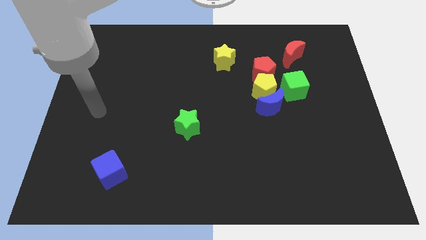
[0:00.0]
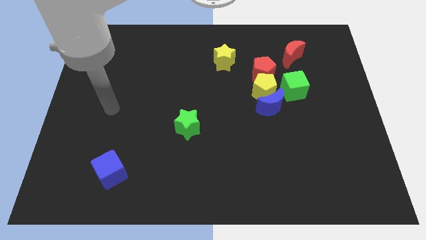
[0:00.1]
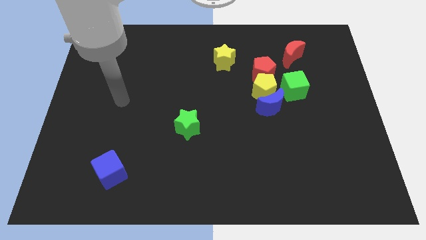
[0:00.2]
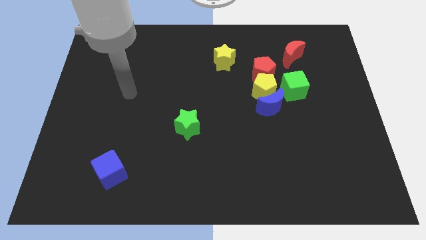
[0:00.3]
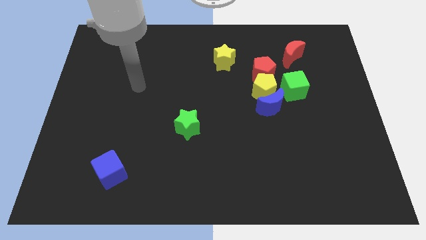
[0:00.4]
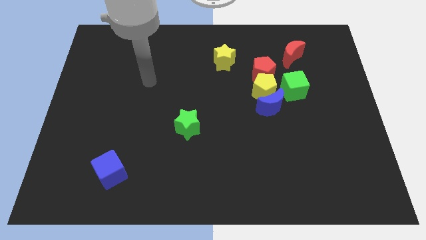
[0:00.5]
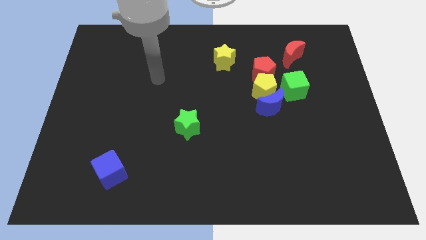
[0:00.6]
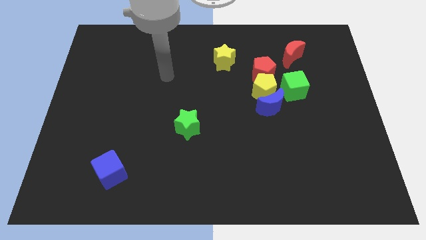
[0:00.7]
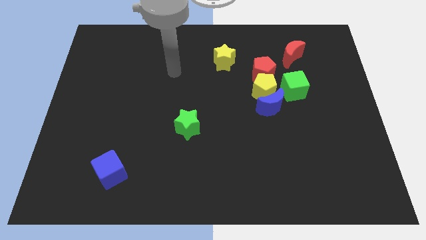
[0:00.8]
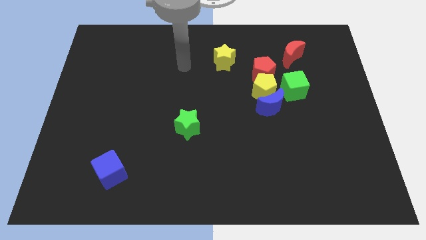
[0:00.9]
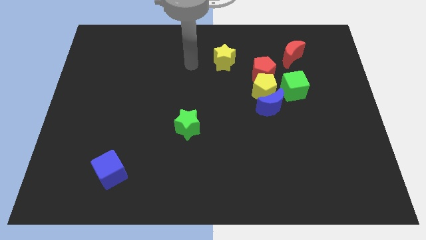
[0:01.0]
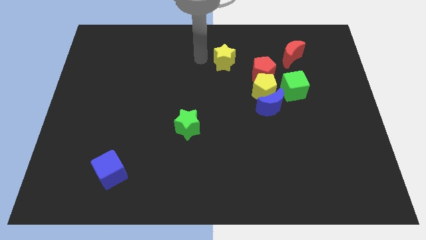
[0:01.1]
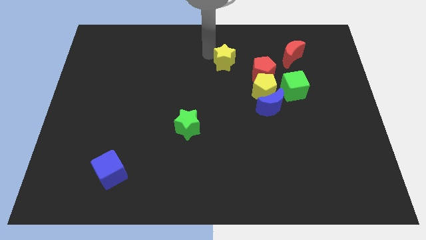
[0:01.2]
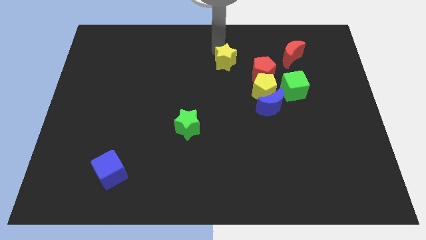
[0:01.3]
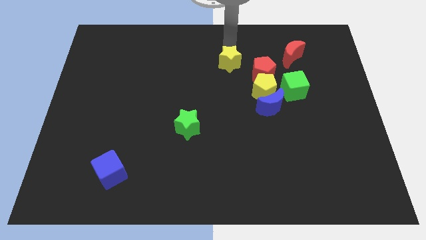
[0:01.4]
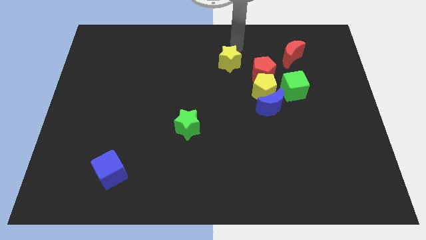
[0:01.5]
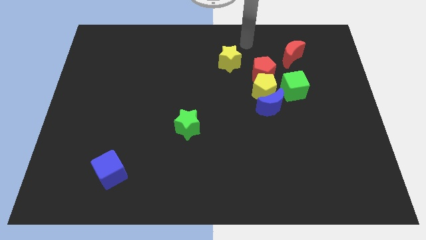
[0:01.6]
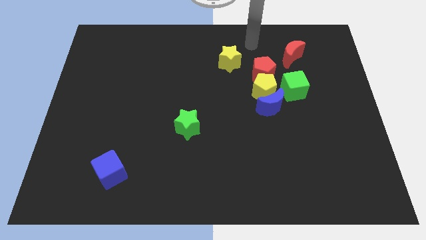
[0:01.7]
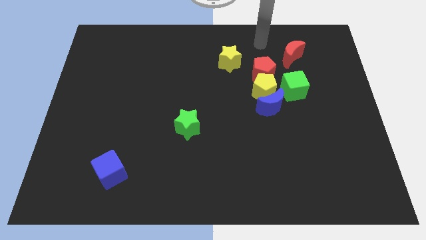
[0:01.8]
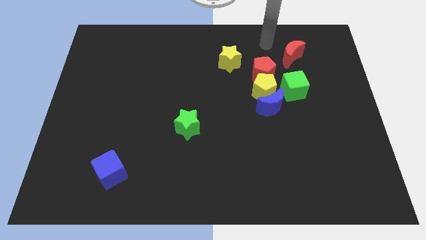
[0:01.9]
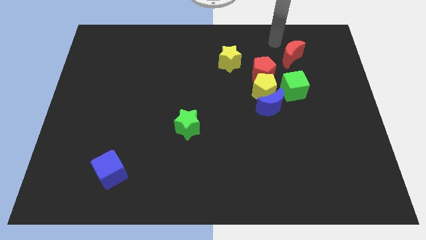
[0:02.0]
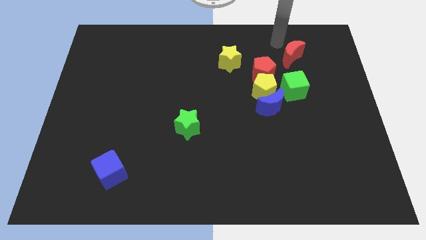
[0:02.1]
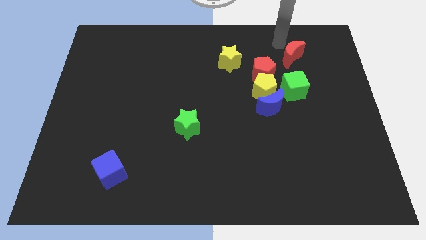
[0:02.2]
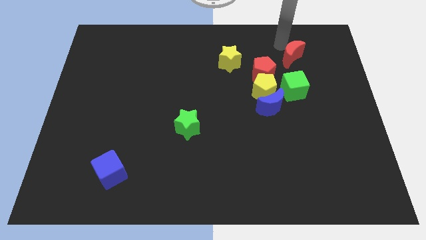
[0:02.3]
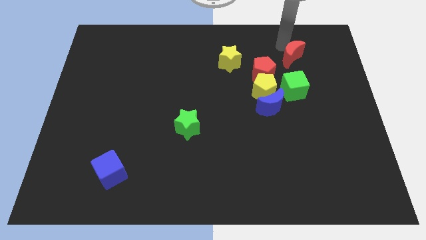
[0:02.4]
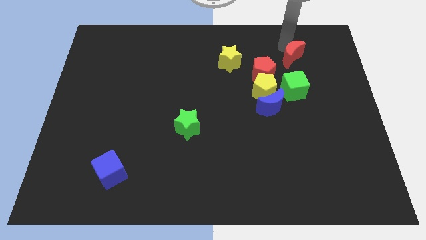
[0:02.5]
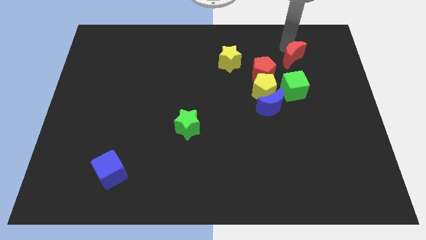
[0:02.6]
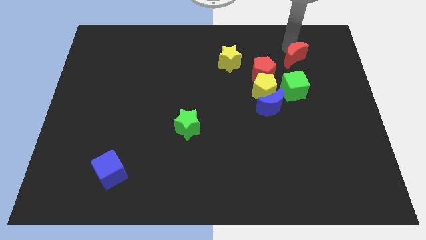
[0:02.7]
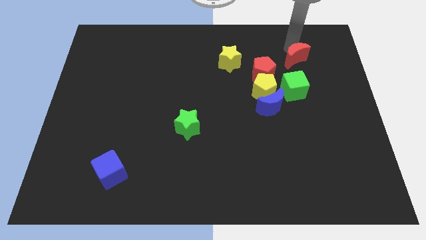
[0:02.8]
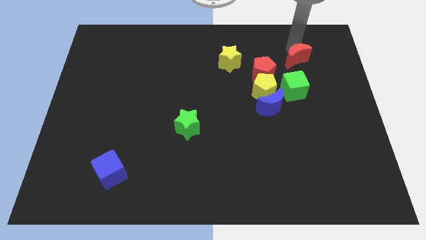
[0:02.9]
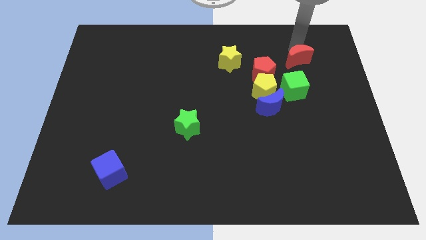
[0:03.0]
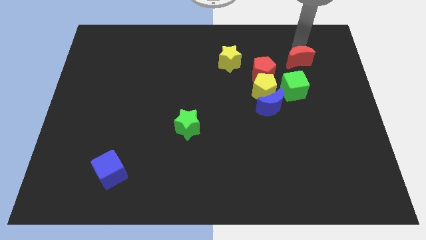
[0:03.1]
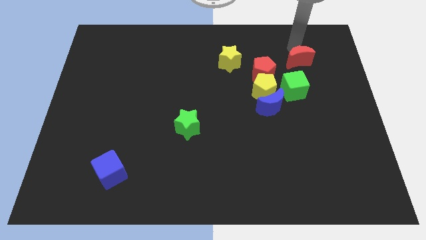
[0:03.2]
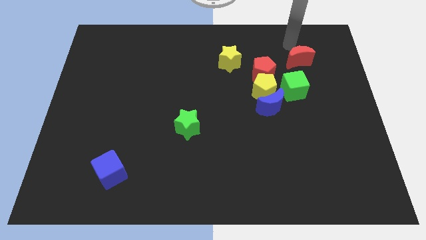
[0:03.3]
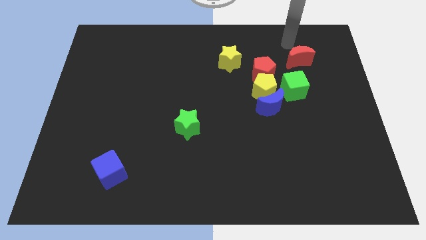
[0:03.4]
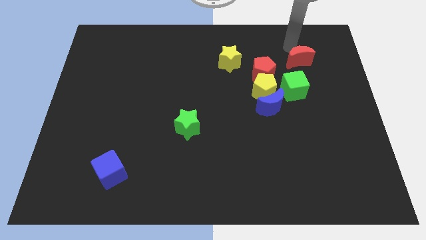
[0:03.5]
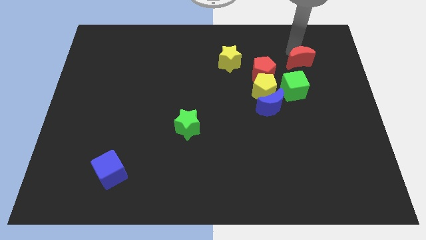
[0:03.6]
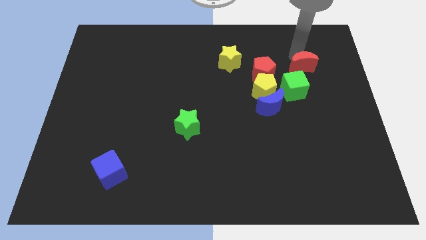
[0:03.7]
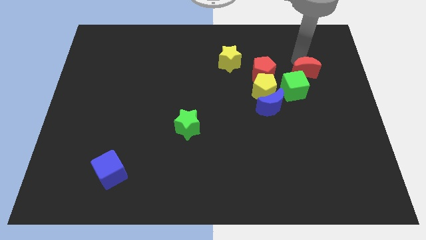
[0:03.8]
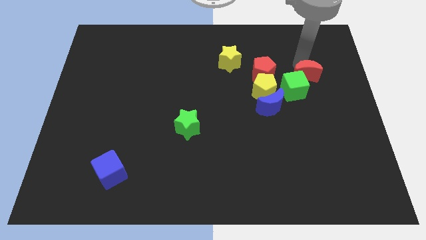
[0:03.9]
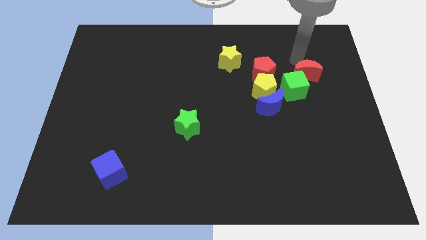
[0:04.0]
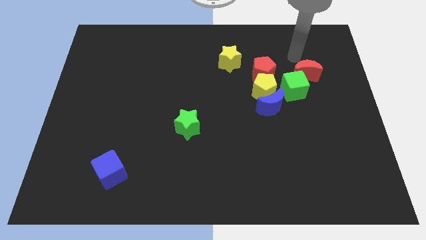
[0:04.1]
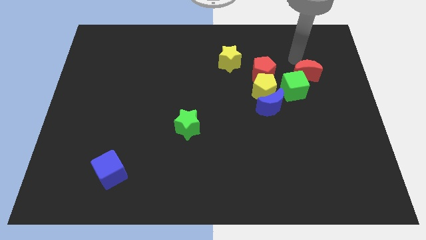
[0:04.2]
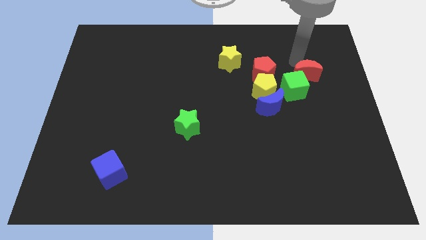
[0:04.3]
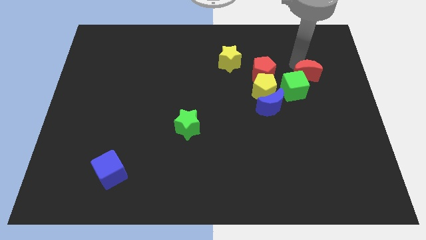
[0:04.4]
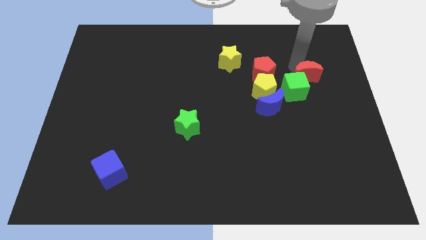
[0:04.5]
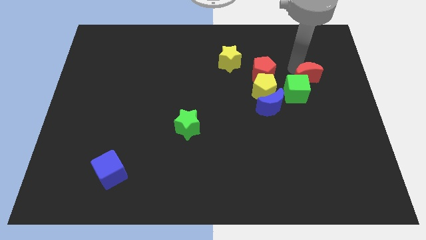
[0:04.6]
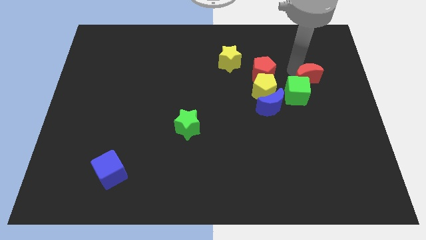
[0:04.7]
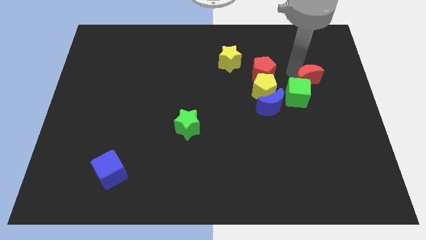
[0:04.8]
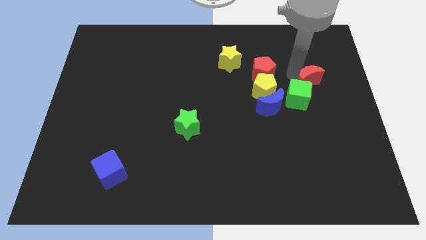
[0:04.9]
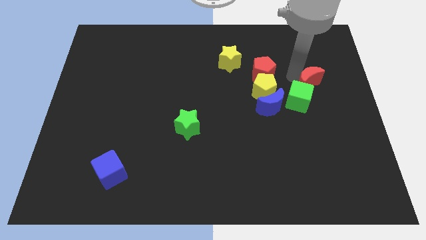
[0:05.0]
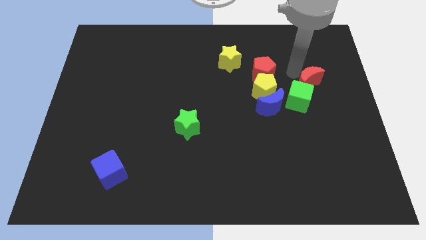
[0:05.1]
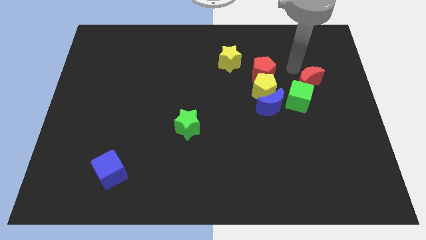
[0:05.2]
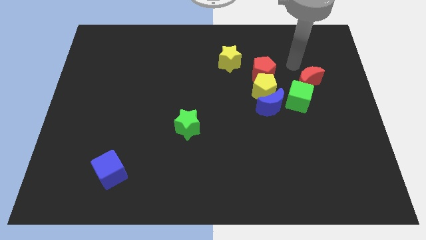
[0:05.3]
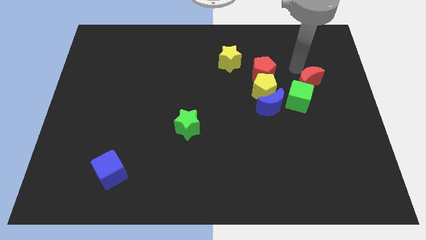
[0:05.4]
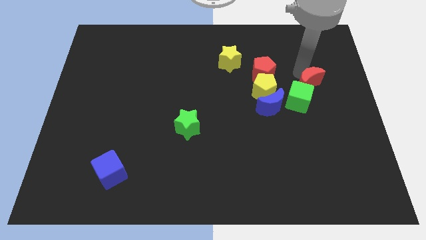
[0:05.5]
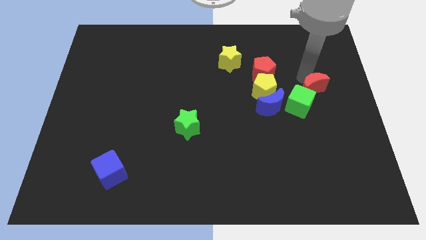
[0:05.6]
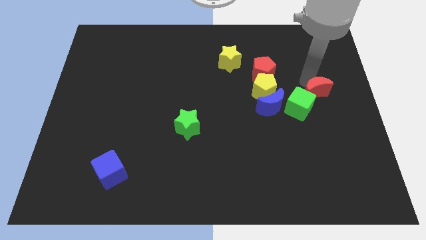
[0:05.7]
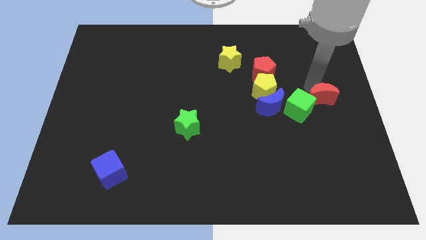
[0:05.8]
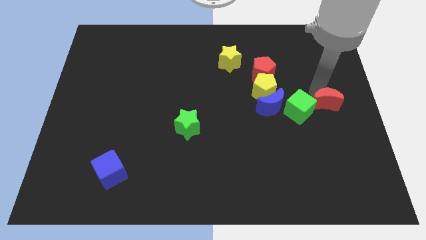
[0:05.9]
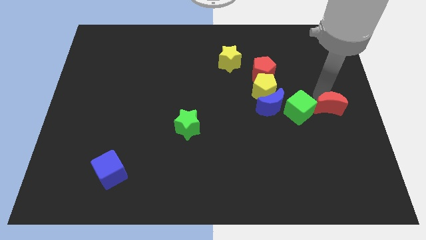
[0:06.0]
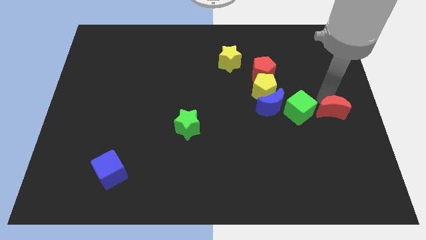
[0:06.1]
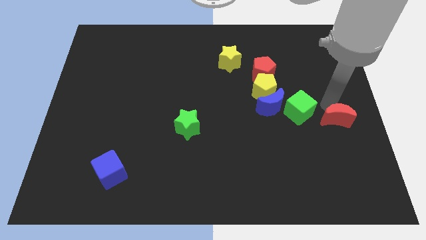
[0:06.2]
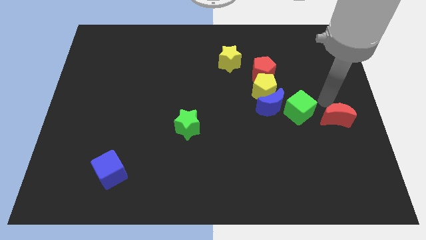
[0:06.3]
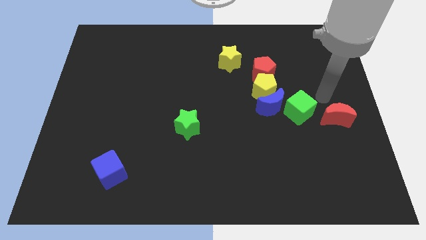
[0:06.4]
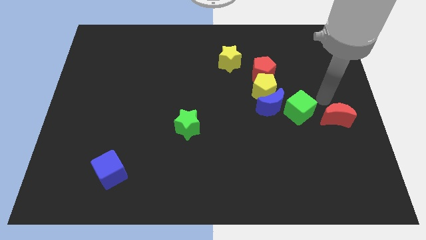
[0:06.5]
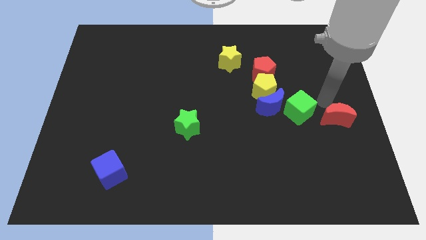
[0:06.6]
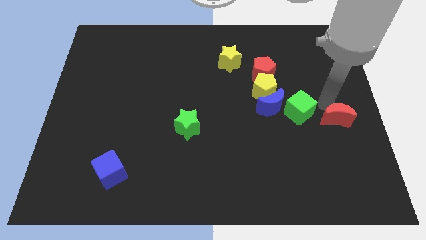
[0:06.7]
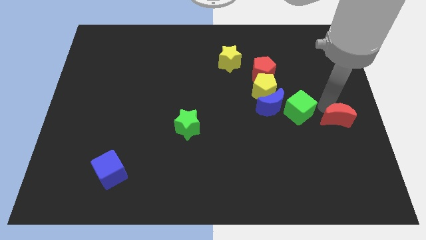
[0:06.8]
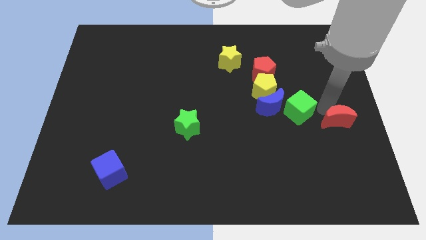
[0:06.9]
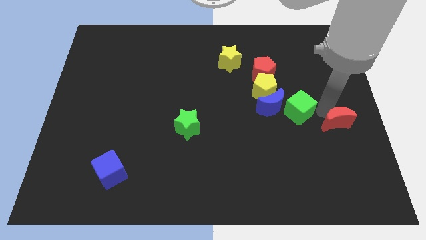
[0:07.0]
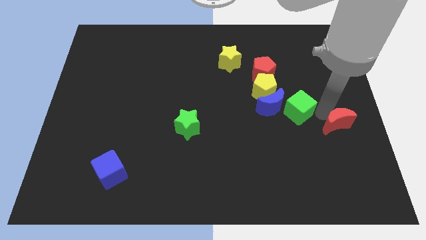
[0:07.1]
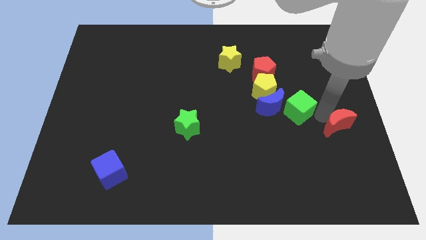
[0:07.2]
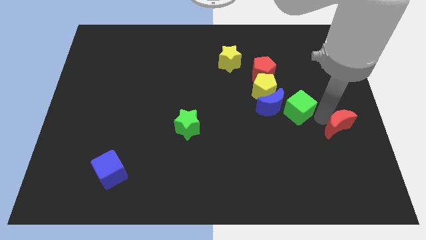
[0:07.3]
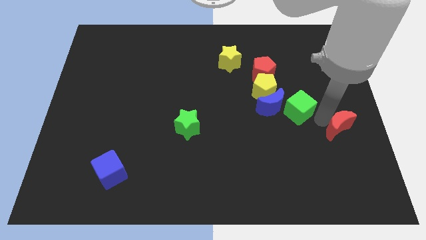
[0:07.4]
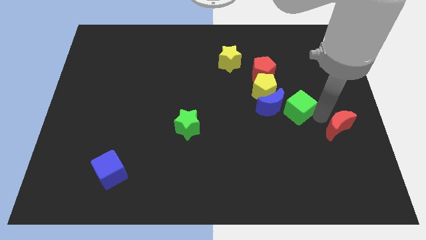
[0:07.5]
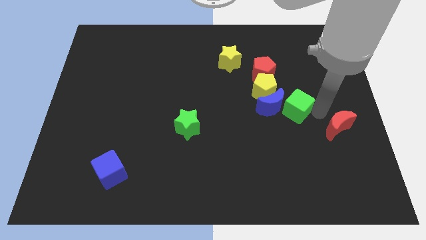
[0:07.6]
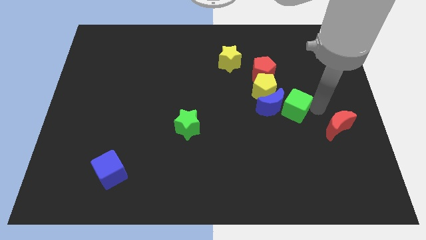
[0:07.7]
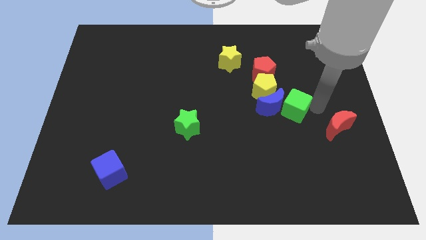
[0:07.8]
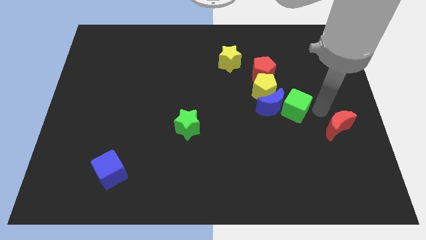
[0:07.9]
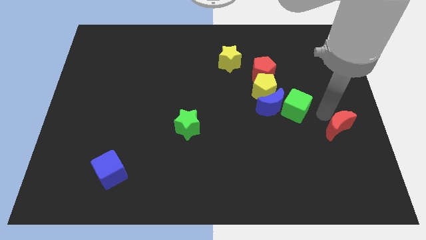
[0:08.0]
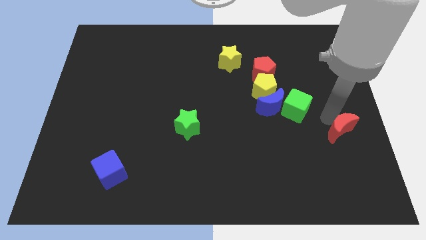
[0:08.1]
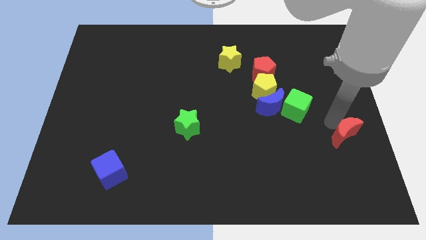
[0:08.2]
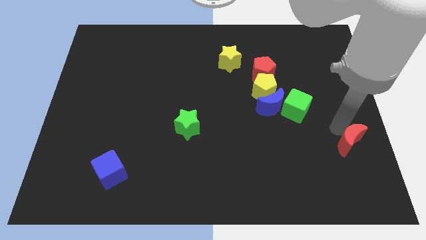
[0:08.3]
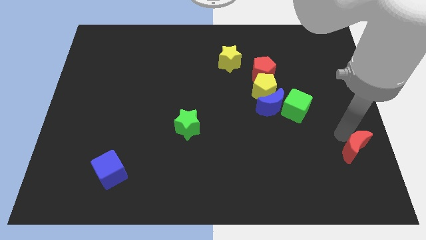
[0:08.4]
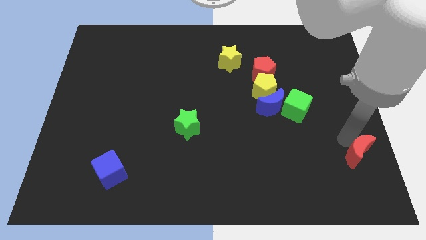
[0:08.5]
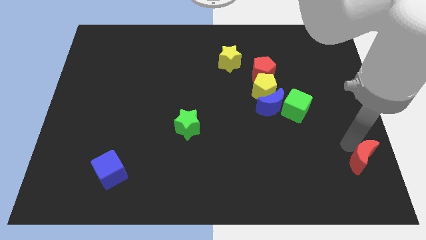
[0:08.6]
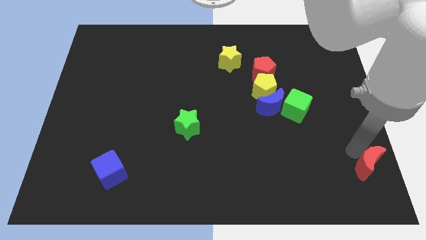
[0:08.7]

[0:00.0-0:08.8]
move the red moon to the lower right corner
